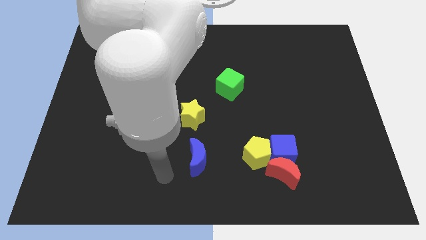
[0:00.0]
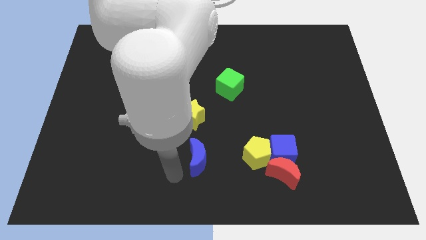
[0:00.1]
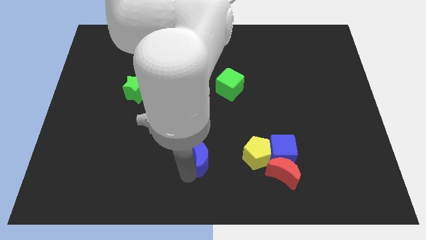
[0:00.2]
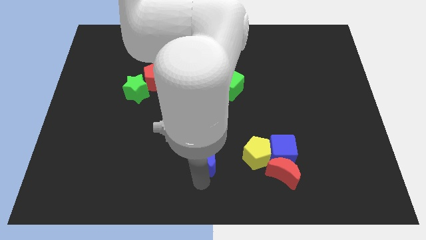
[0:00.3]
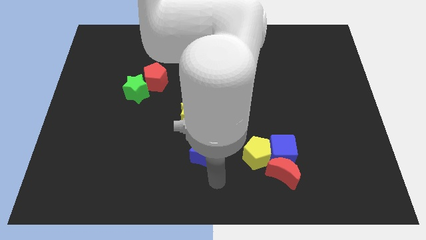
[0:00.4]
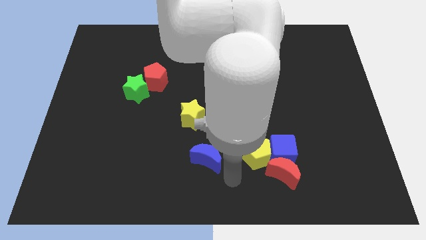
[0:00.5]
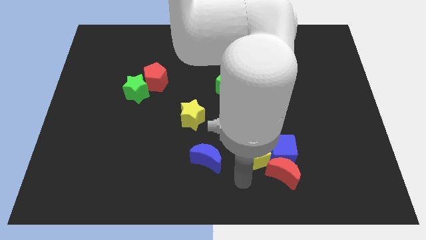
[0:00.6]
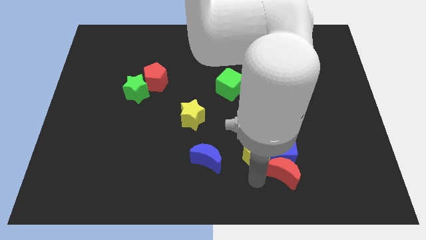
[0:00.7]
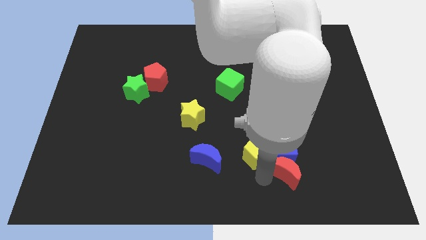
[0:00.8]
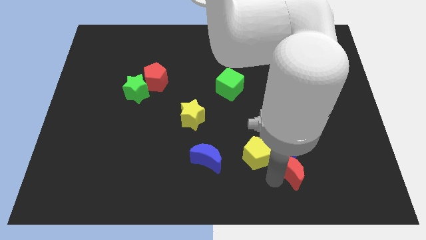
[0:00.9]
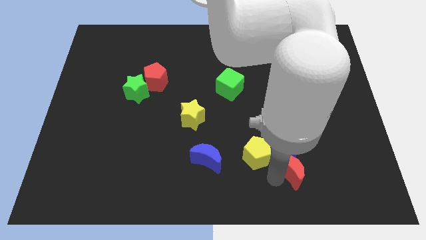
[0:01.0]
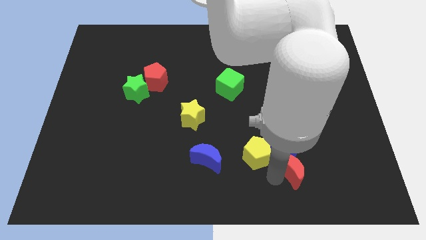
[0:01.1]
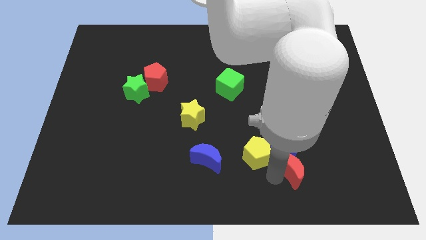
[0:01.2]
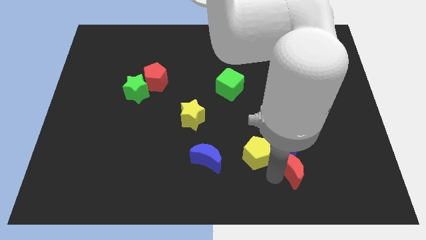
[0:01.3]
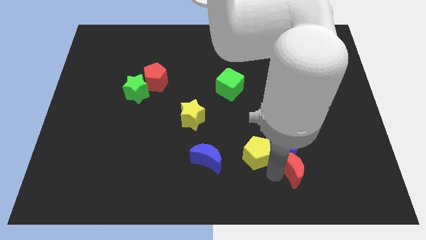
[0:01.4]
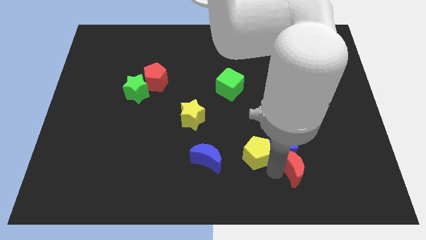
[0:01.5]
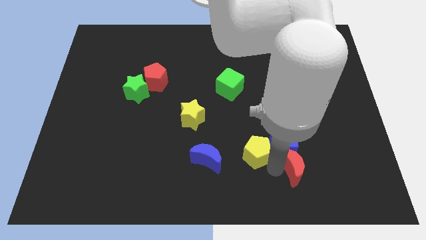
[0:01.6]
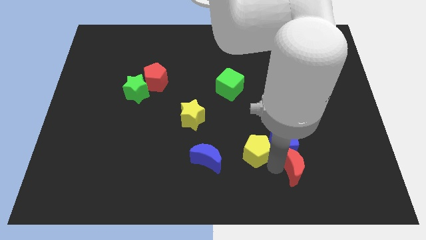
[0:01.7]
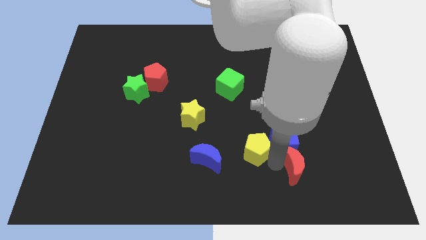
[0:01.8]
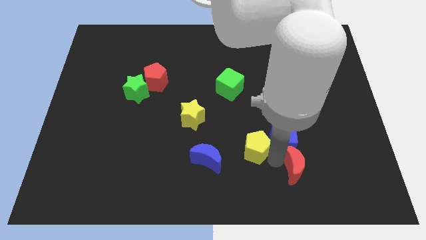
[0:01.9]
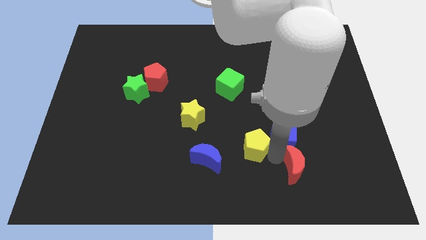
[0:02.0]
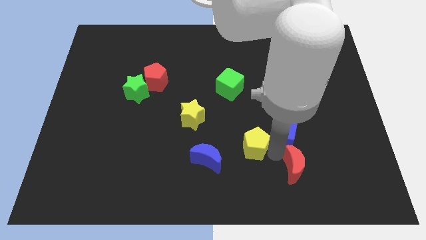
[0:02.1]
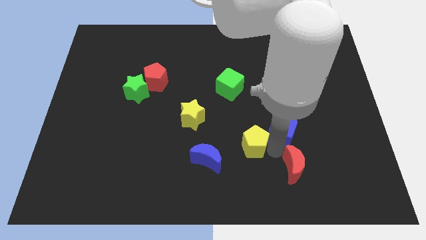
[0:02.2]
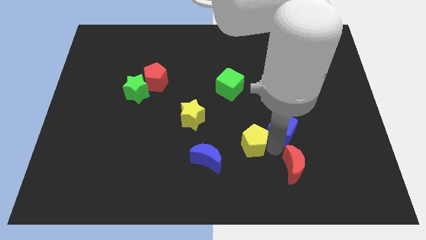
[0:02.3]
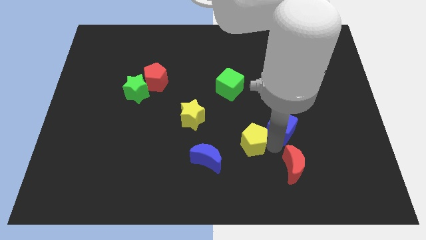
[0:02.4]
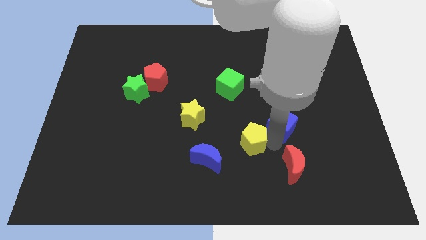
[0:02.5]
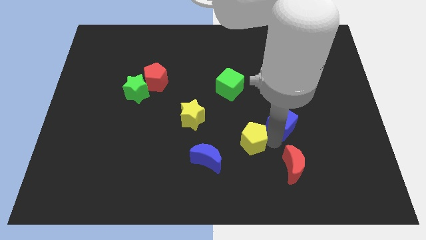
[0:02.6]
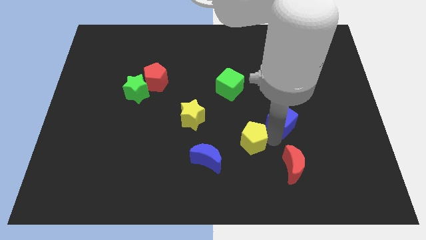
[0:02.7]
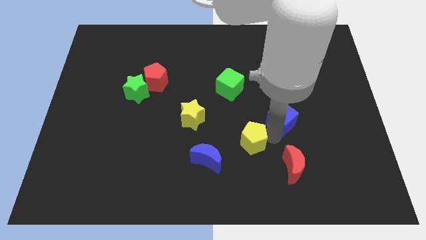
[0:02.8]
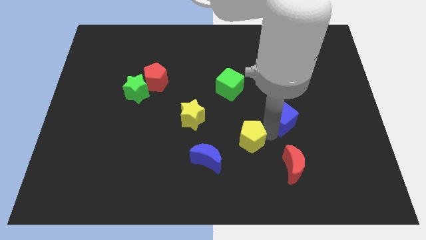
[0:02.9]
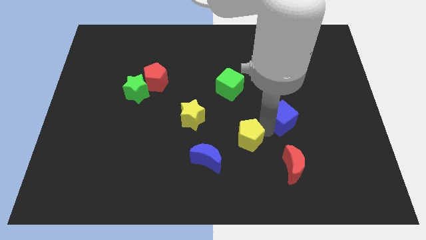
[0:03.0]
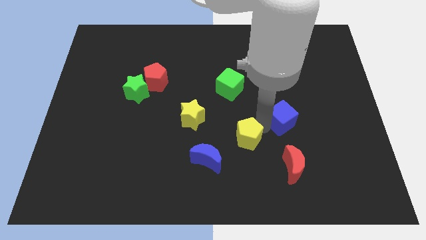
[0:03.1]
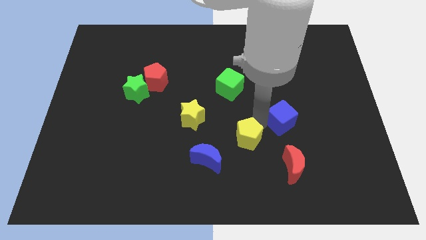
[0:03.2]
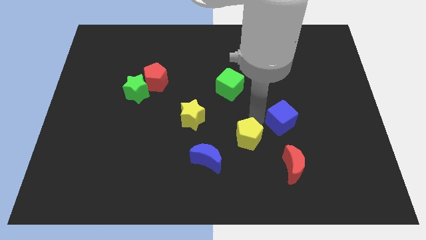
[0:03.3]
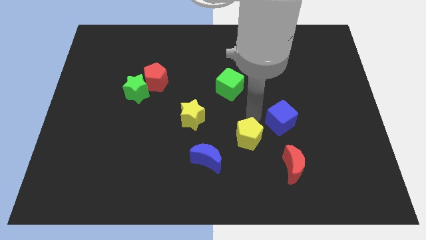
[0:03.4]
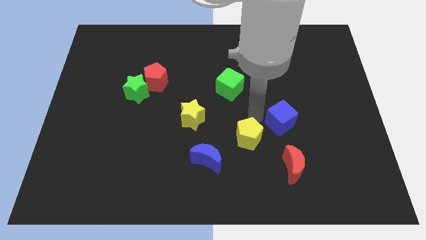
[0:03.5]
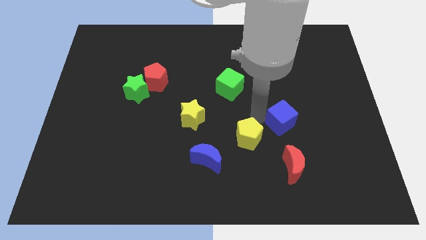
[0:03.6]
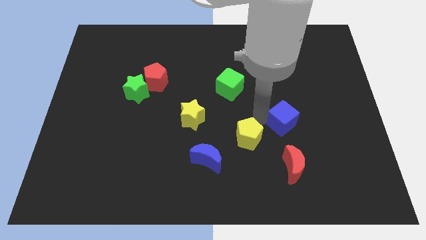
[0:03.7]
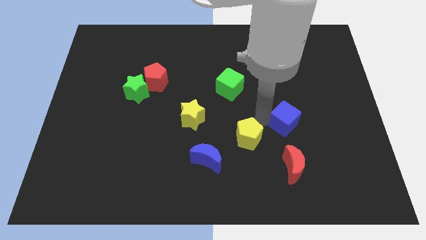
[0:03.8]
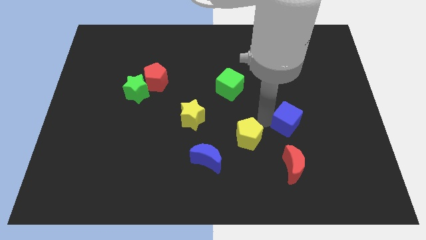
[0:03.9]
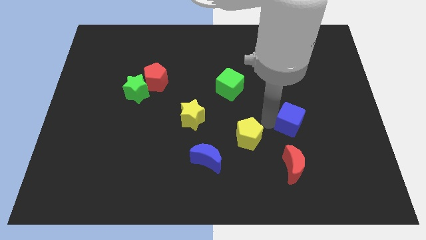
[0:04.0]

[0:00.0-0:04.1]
slide the blue cube up and then right slightly

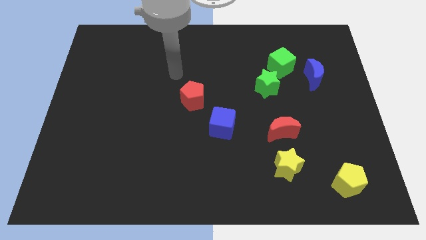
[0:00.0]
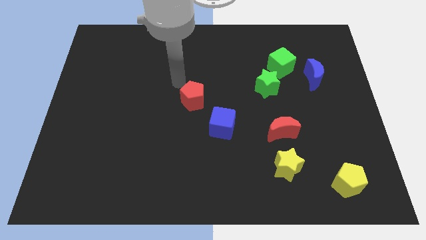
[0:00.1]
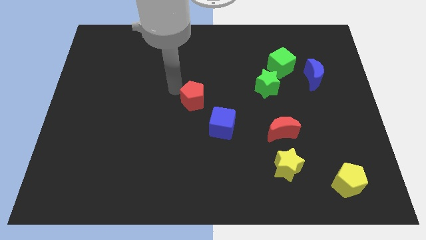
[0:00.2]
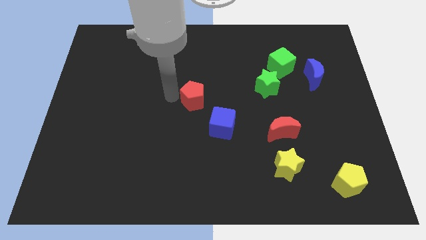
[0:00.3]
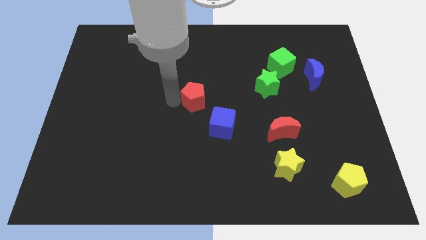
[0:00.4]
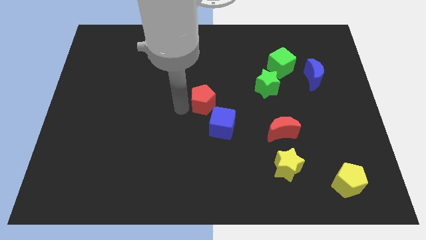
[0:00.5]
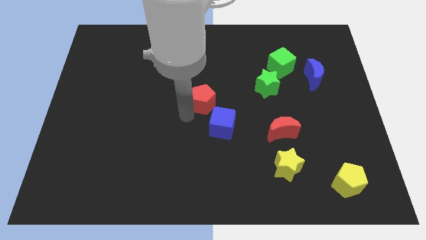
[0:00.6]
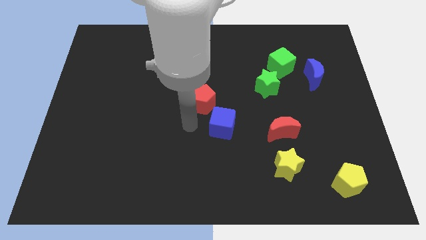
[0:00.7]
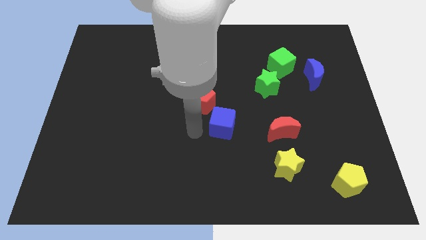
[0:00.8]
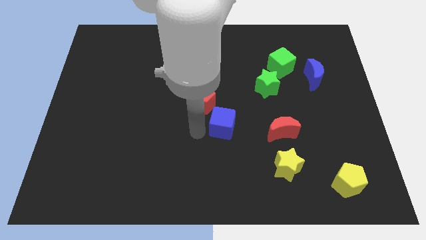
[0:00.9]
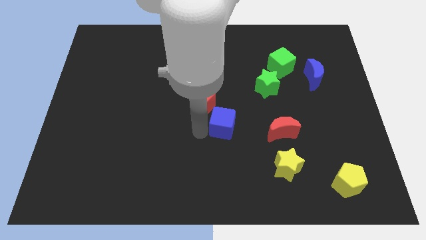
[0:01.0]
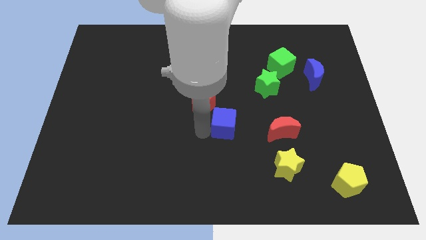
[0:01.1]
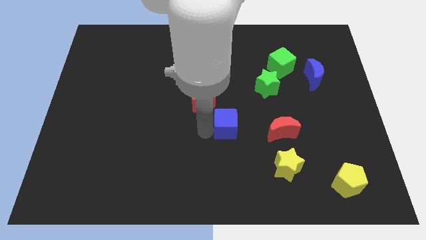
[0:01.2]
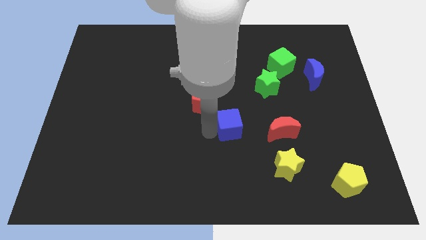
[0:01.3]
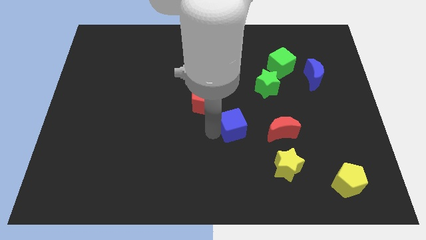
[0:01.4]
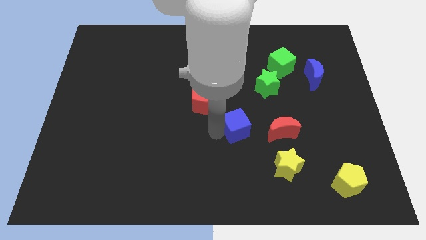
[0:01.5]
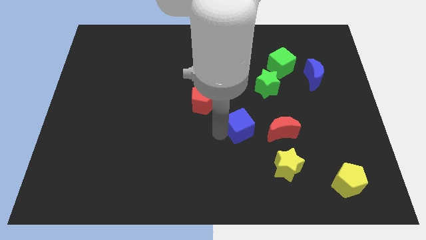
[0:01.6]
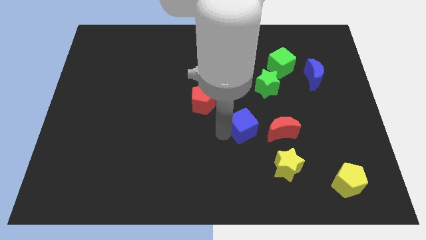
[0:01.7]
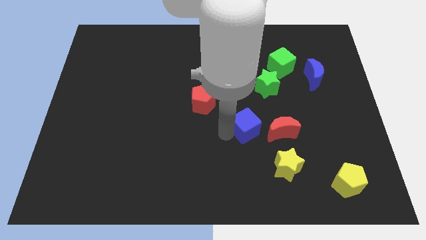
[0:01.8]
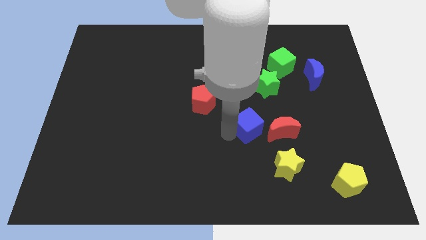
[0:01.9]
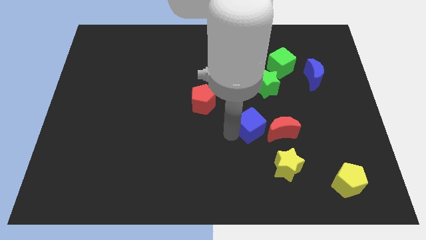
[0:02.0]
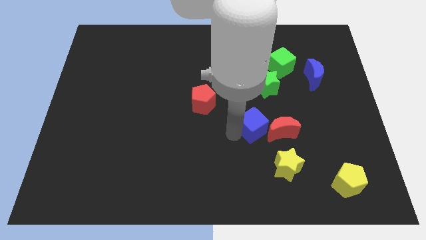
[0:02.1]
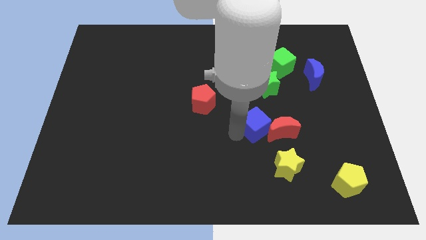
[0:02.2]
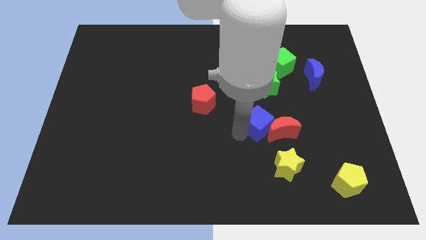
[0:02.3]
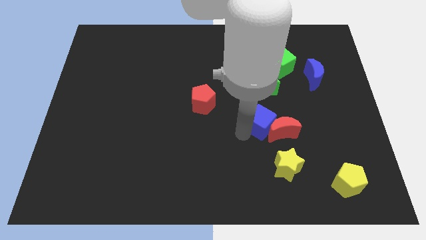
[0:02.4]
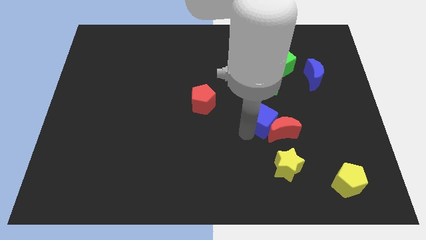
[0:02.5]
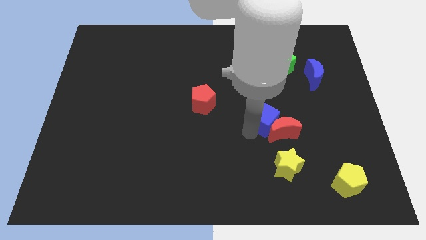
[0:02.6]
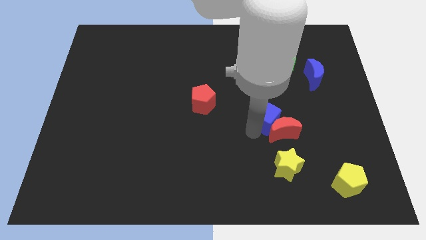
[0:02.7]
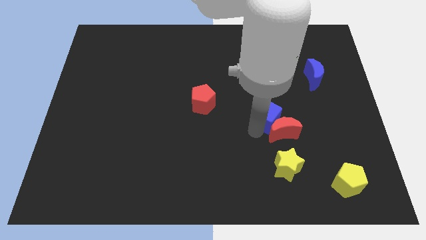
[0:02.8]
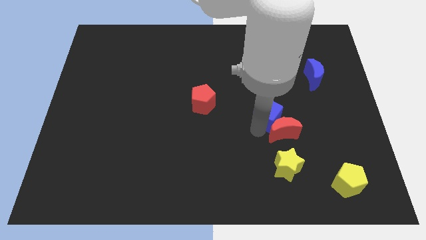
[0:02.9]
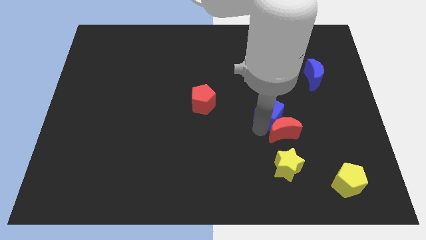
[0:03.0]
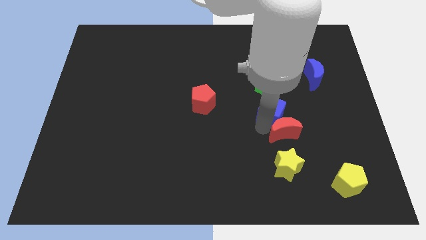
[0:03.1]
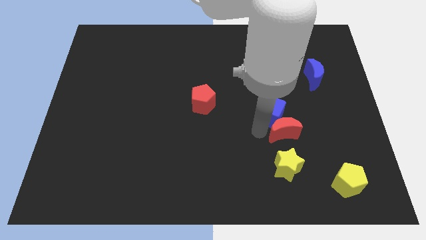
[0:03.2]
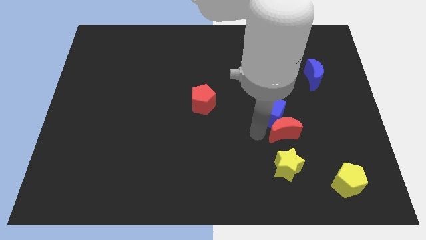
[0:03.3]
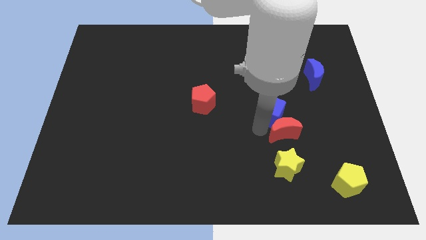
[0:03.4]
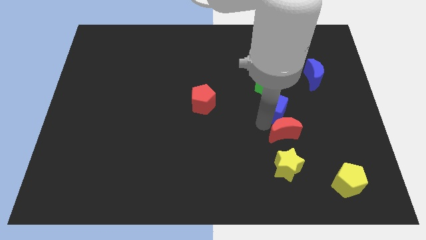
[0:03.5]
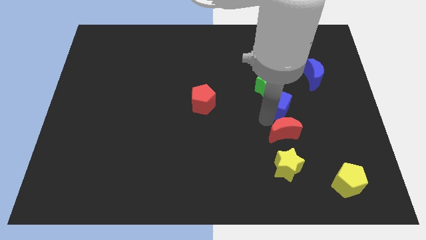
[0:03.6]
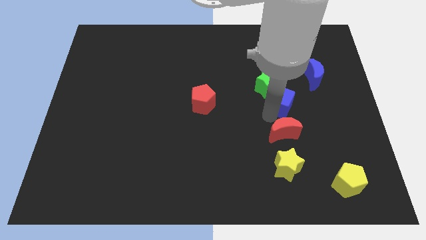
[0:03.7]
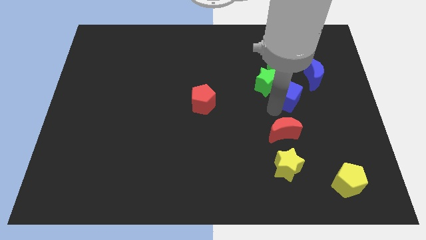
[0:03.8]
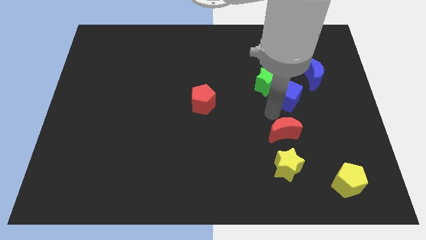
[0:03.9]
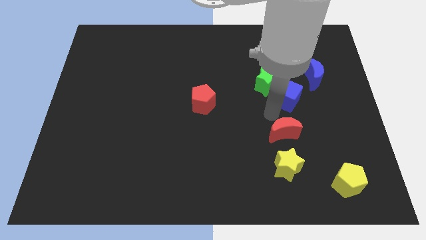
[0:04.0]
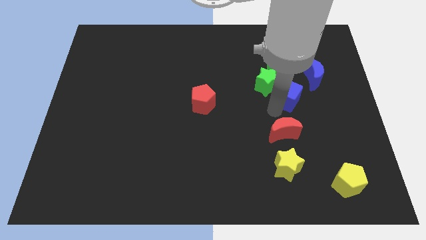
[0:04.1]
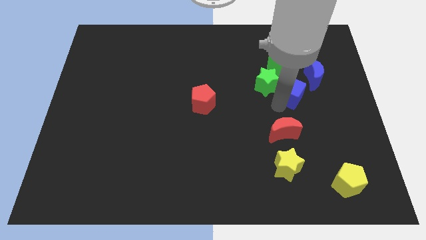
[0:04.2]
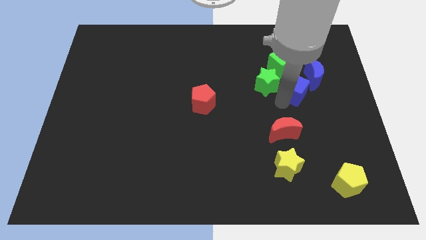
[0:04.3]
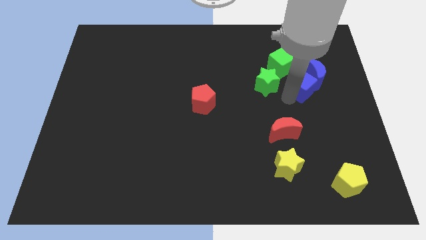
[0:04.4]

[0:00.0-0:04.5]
move the blue cube upwards and to the right
